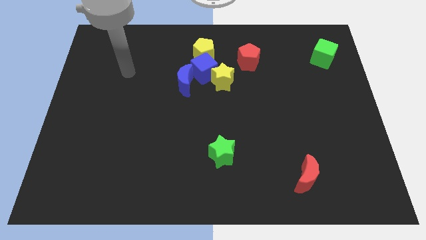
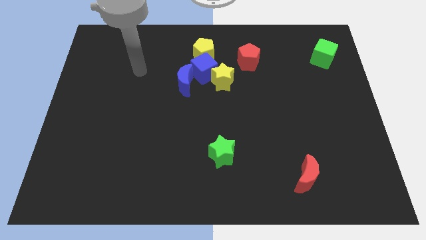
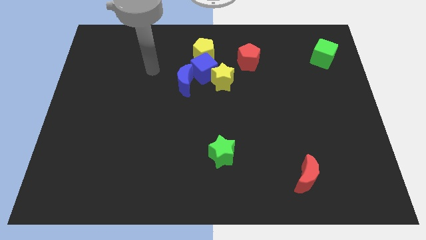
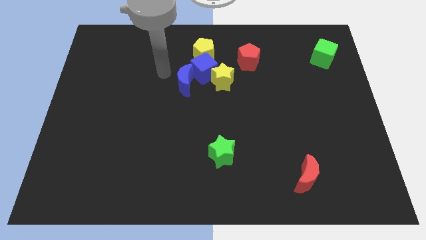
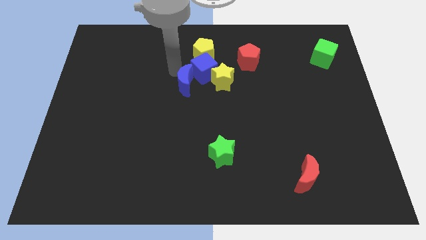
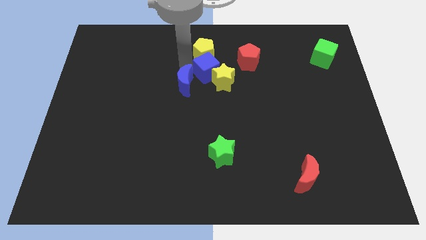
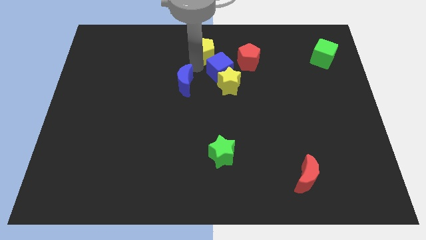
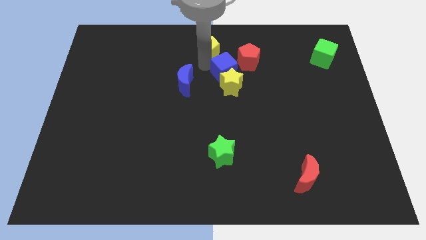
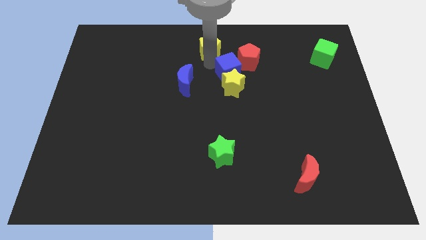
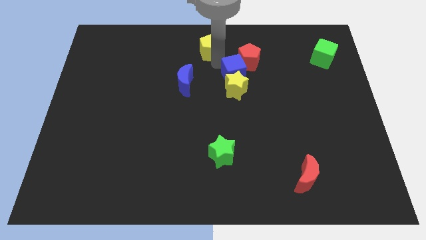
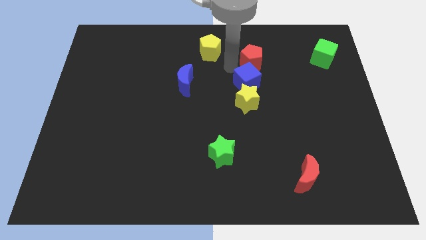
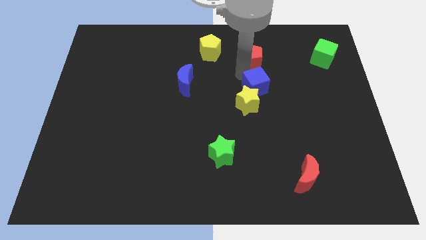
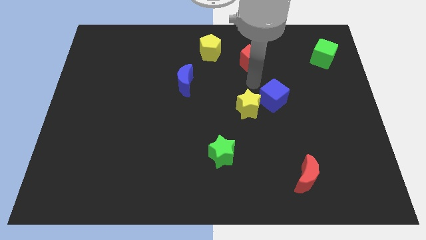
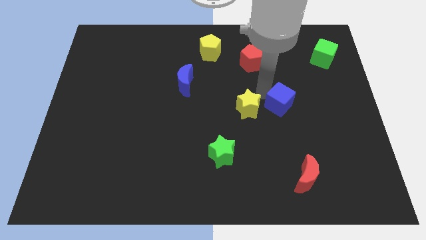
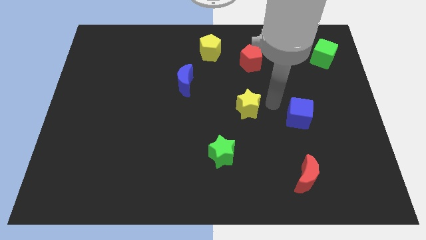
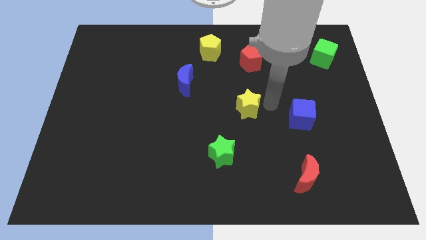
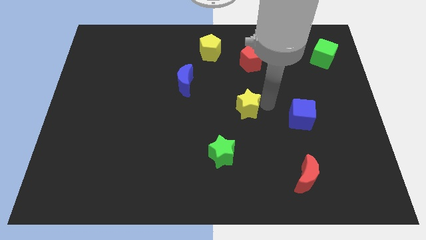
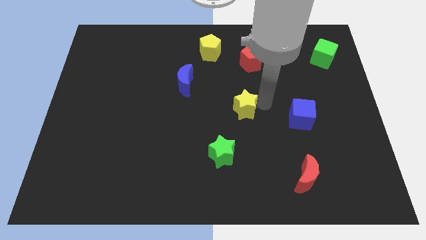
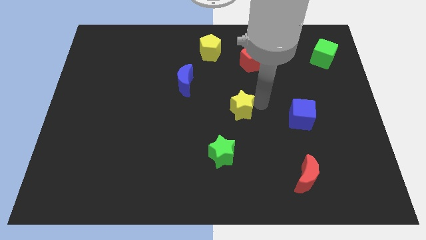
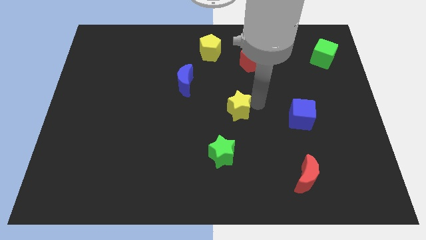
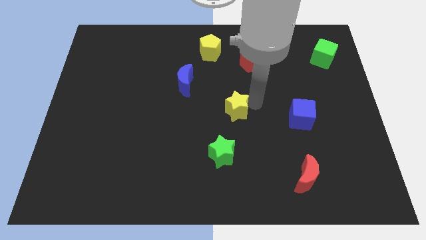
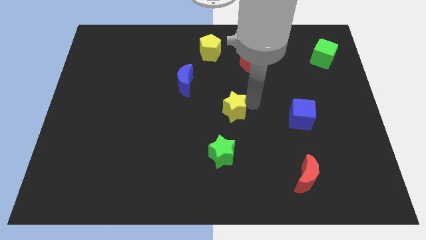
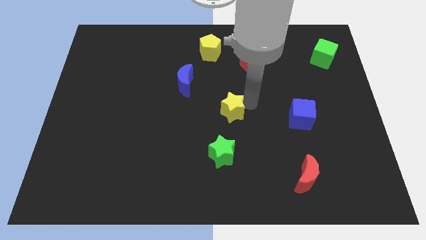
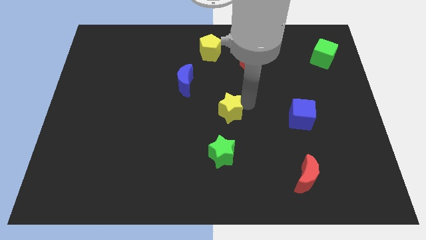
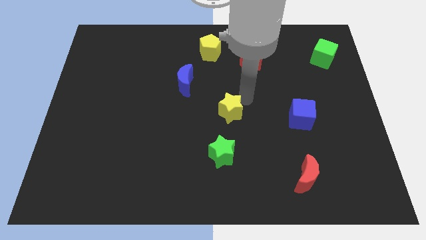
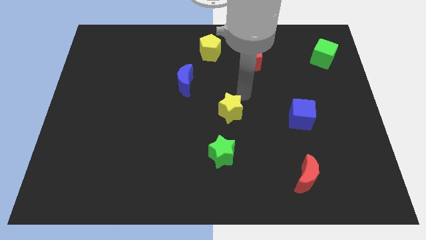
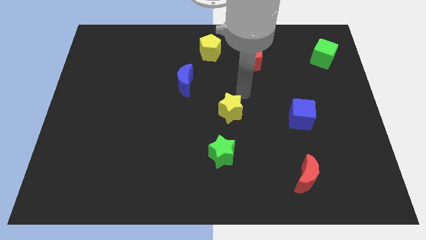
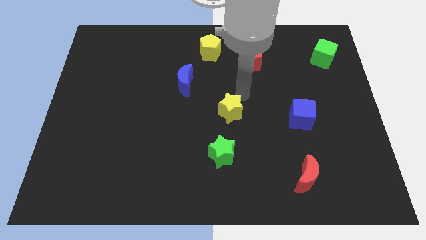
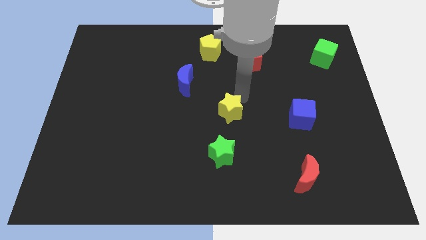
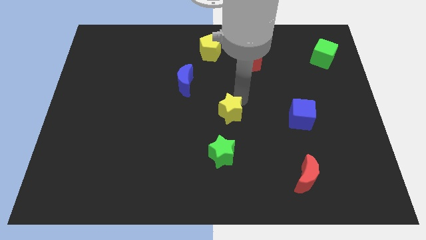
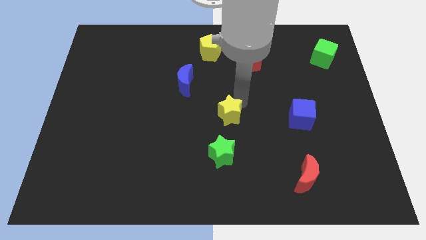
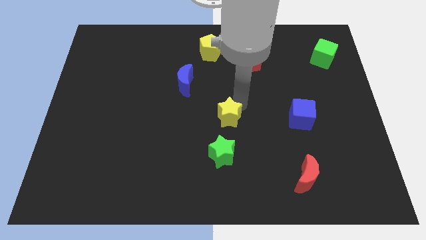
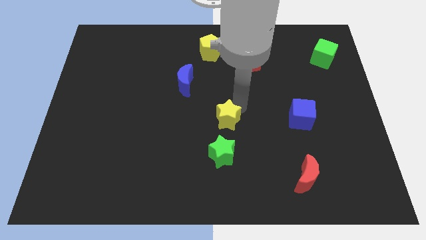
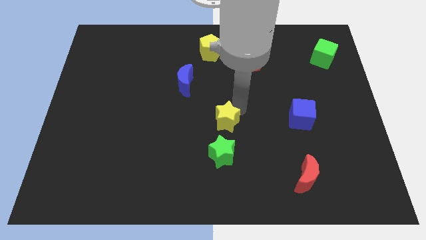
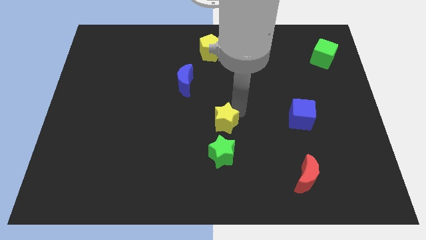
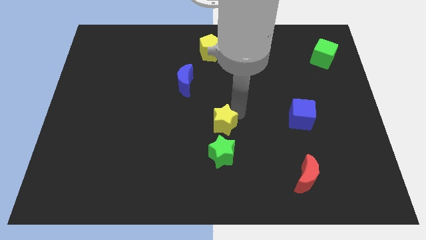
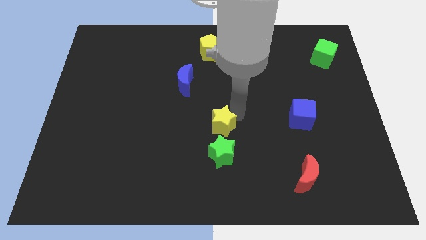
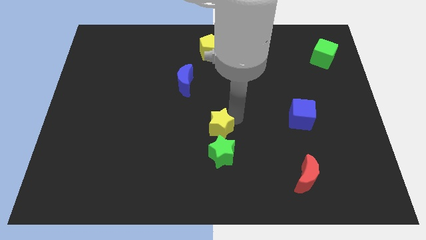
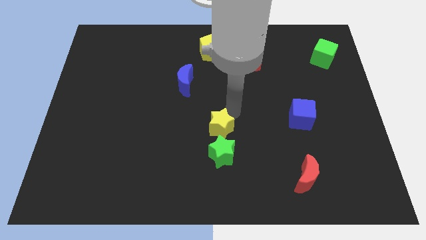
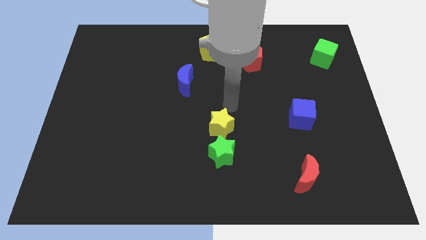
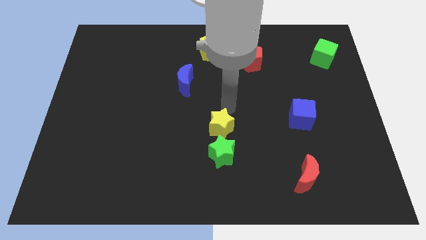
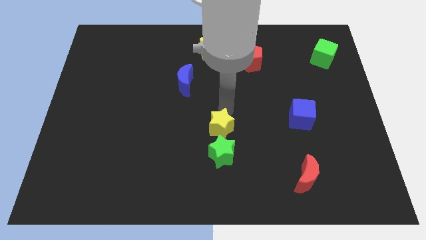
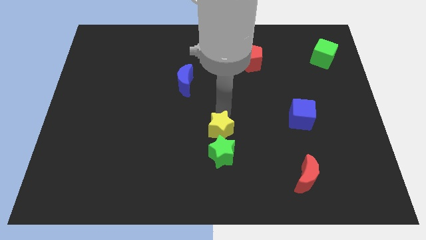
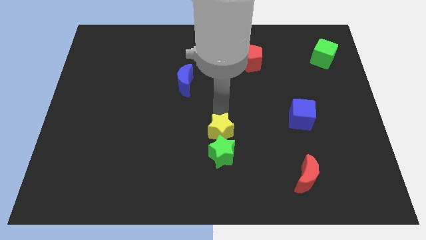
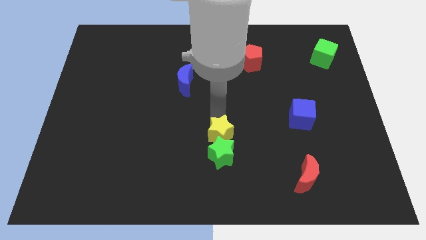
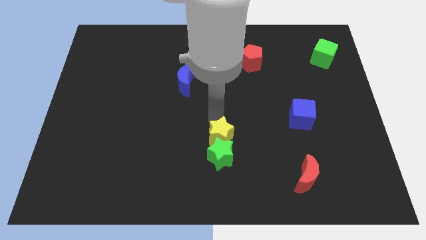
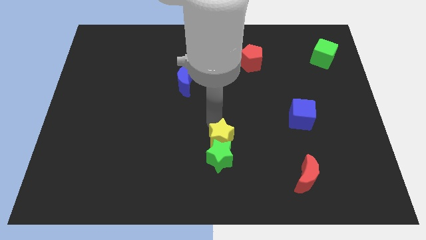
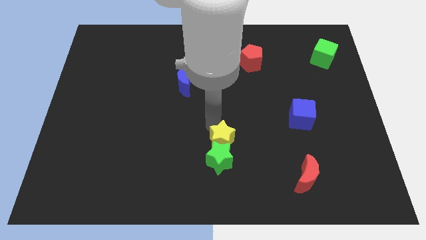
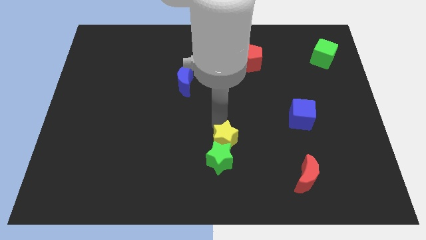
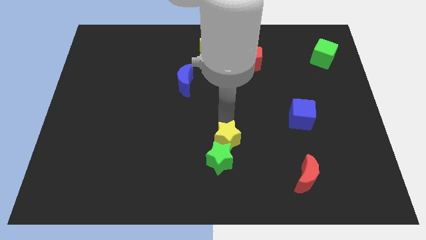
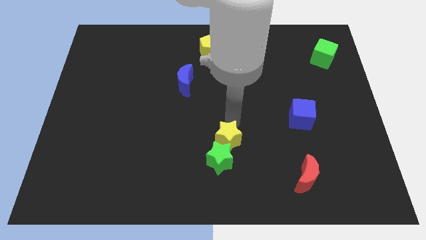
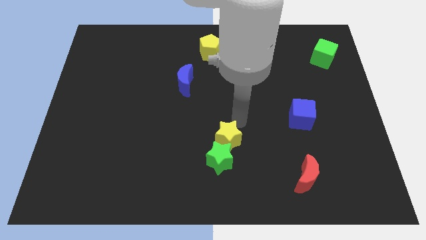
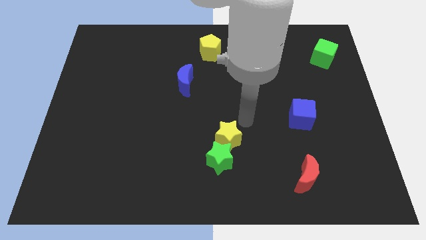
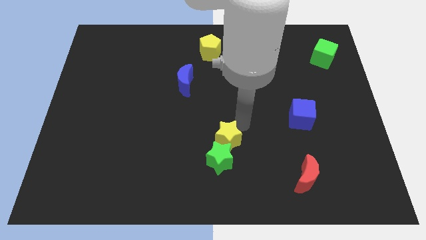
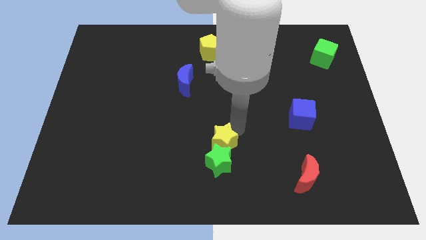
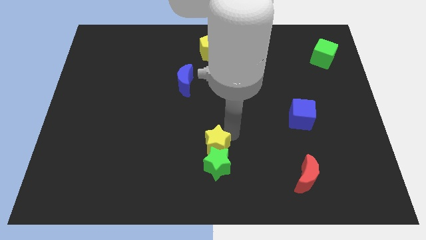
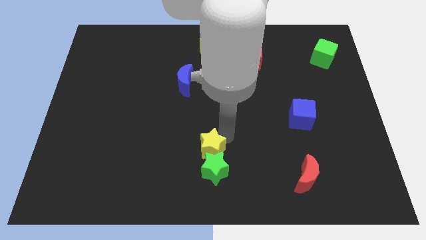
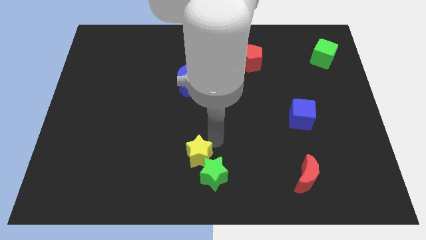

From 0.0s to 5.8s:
put the yellow star to the bottom

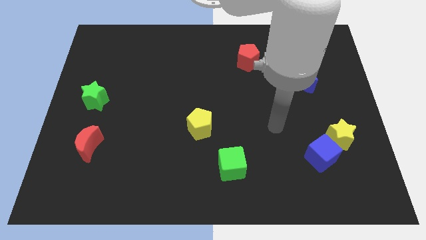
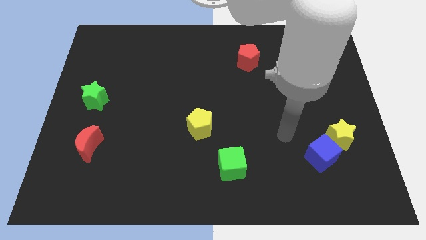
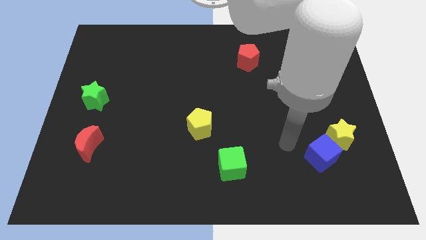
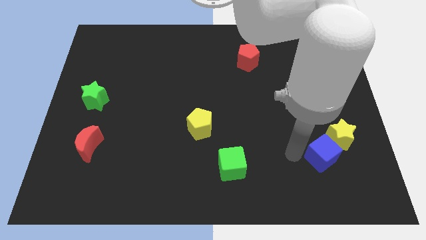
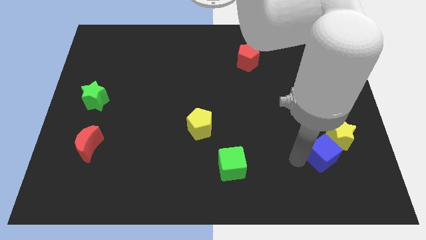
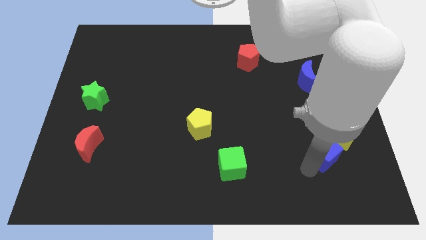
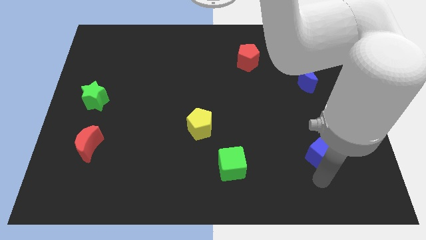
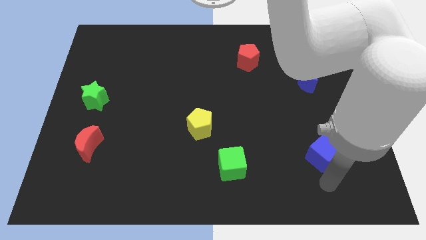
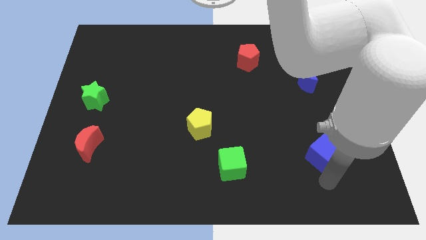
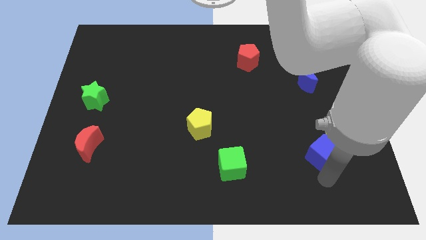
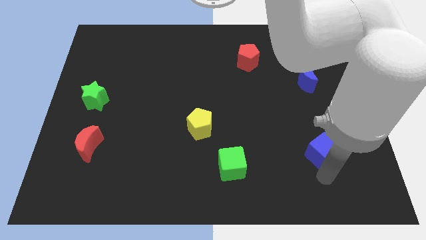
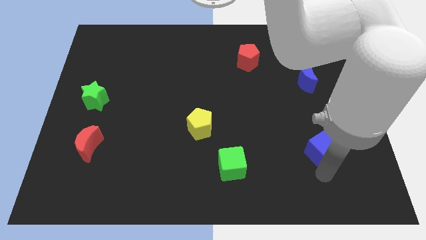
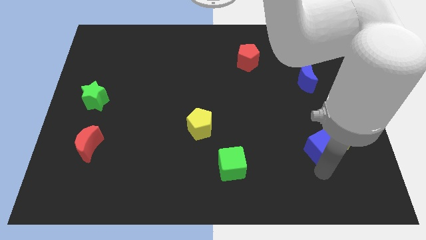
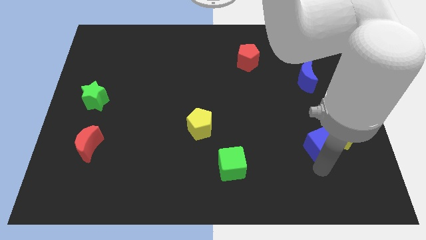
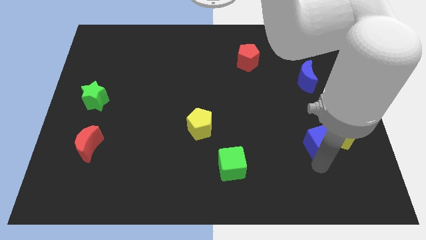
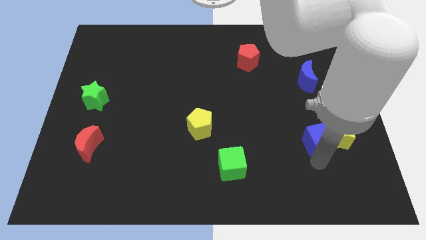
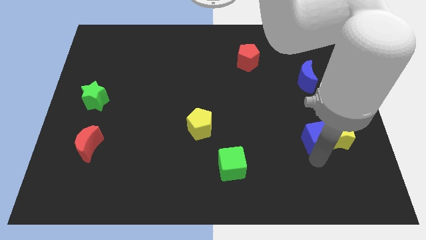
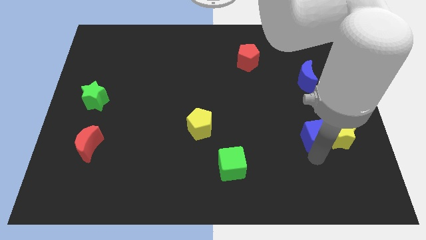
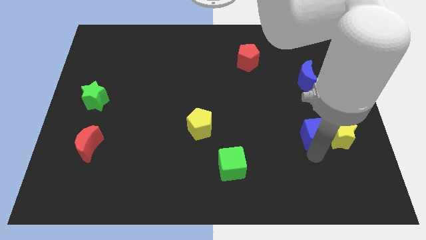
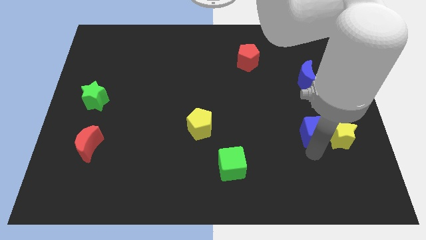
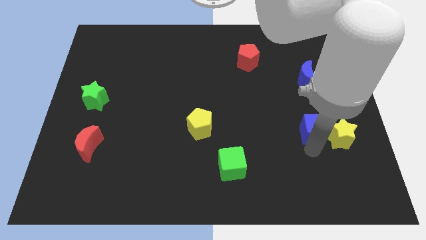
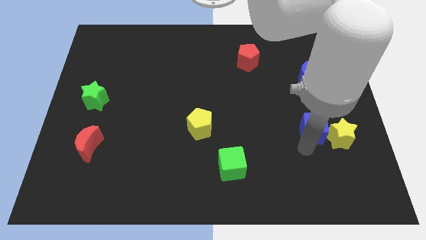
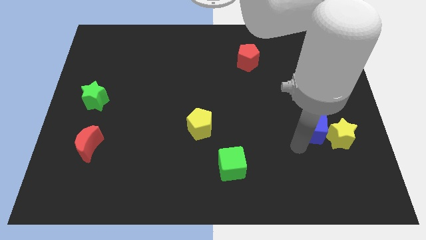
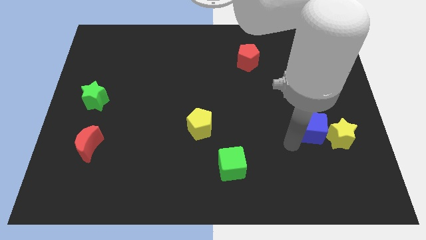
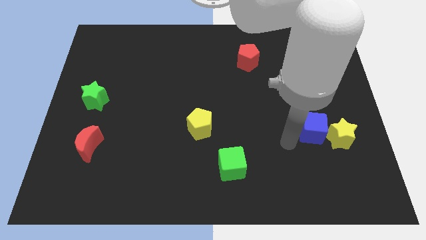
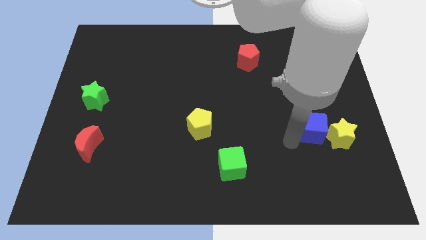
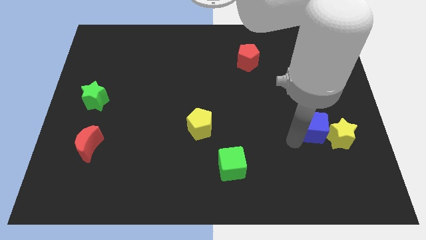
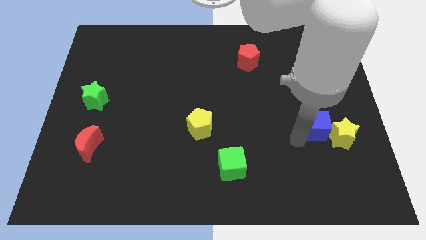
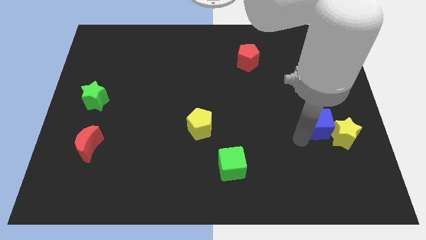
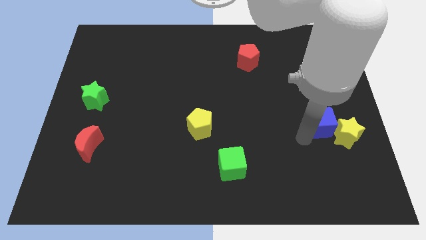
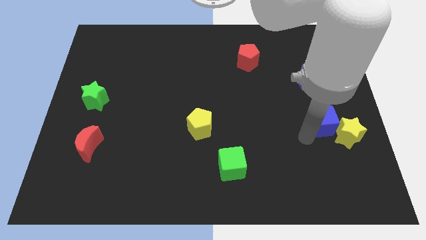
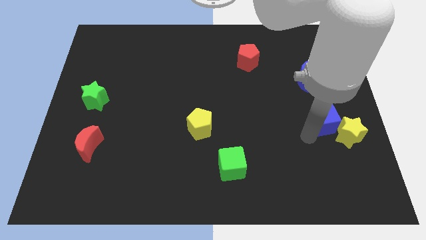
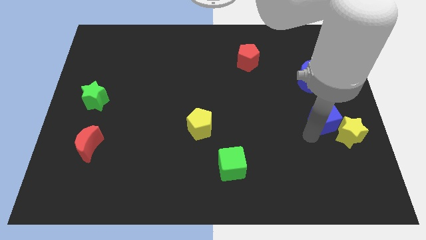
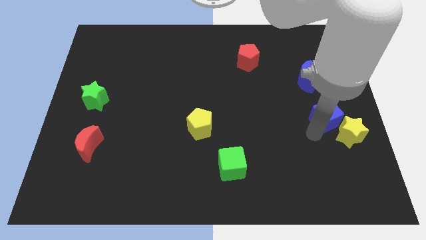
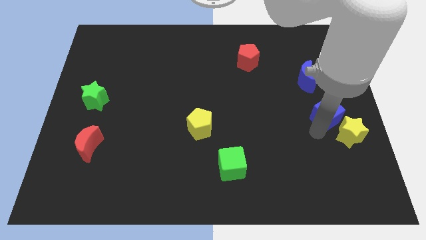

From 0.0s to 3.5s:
push the blue cube to the center right
